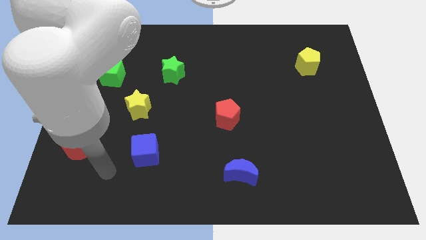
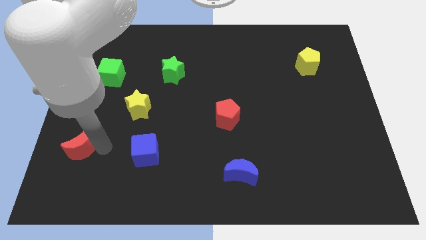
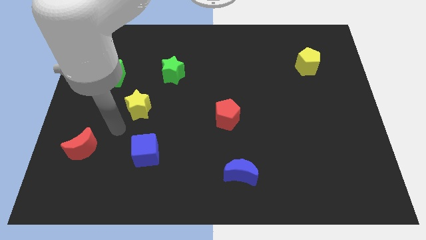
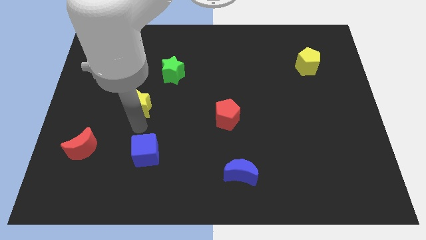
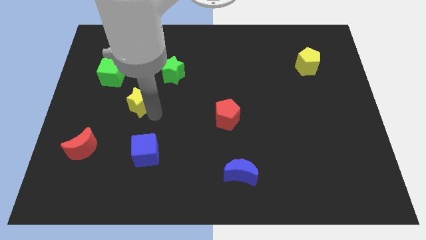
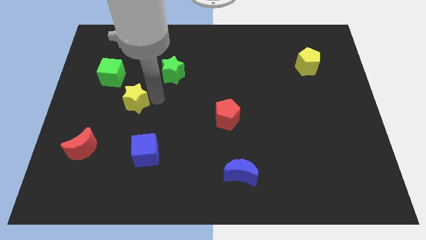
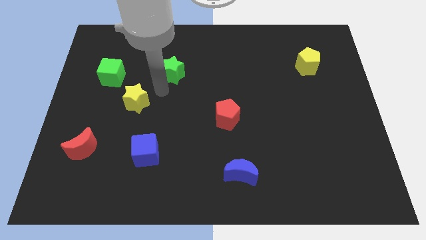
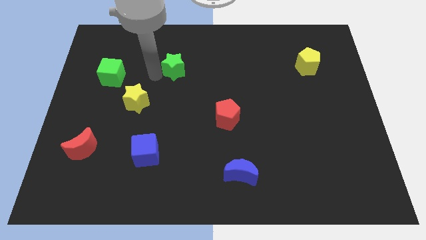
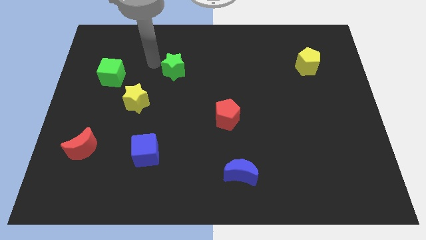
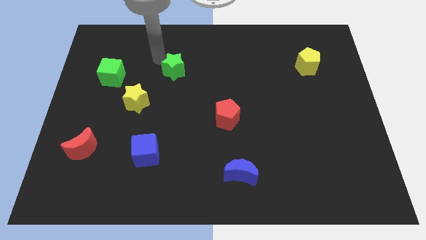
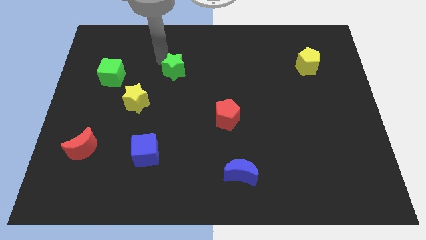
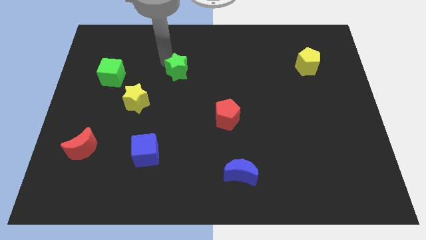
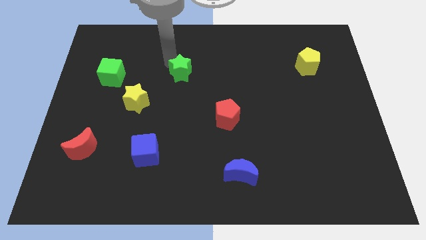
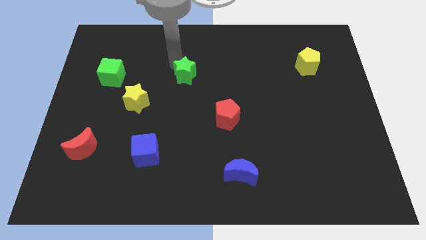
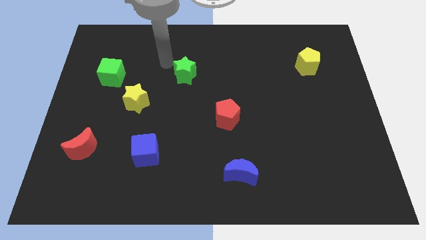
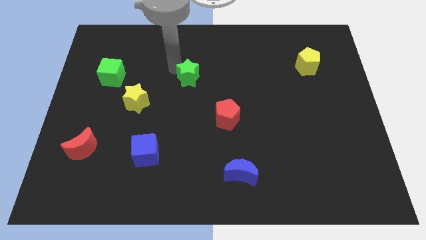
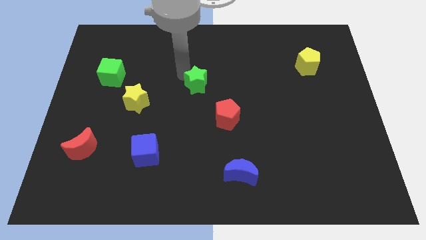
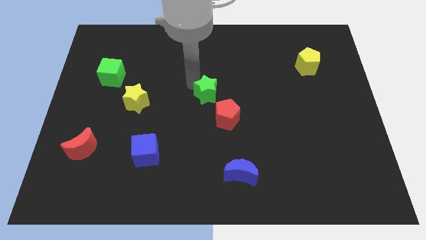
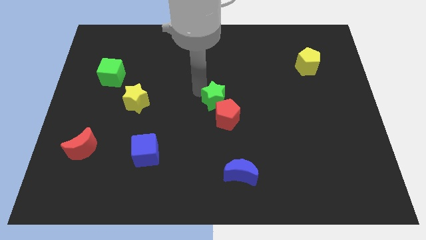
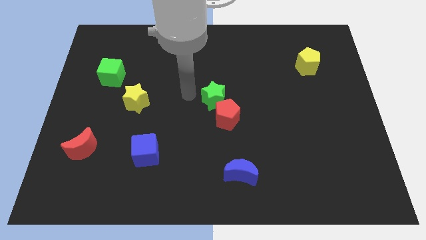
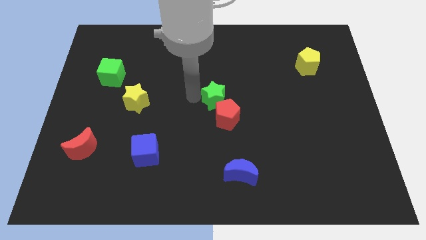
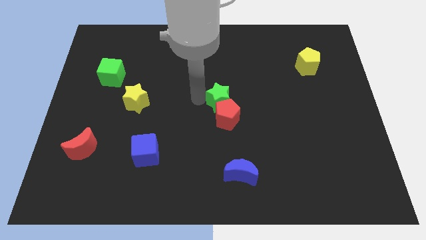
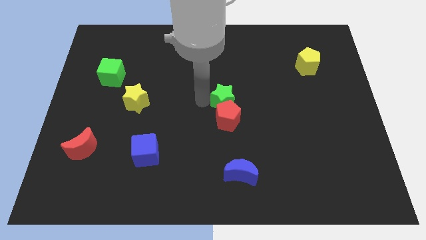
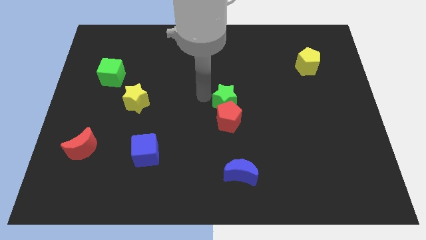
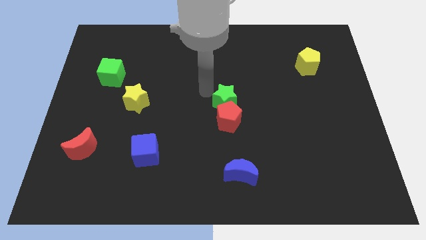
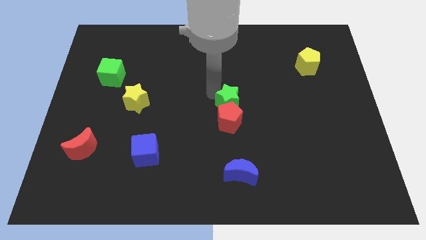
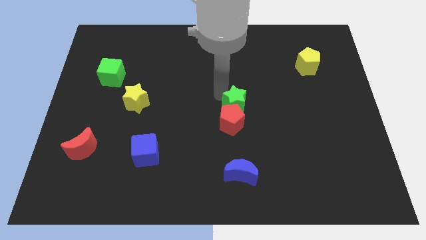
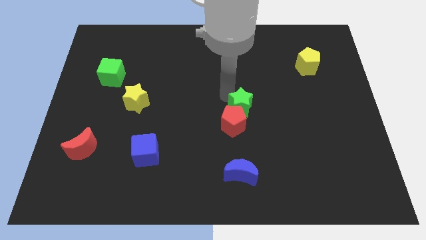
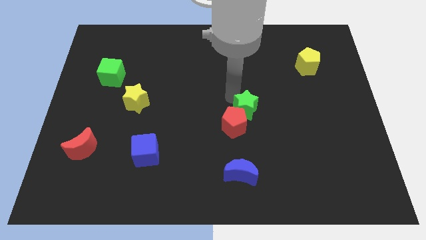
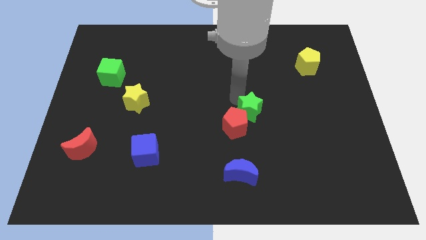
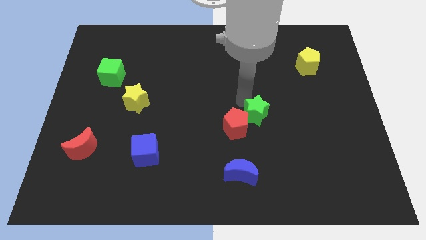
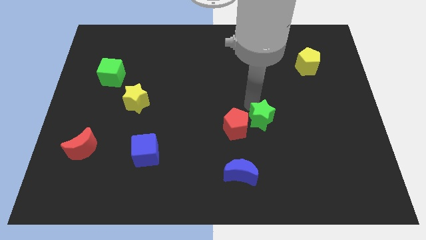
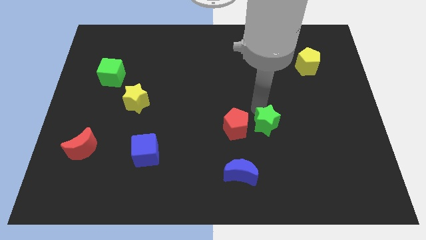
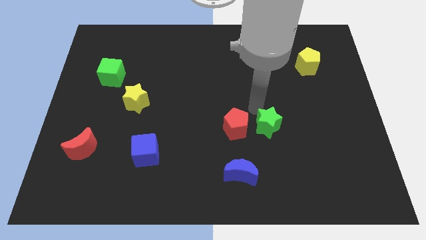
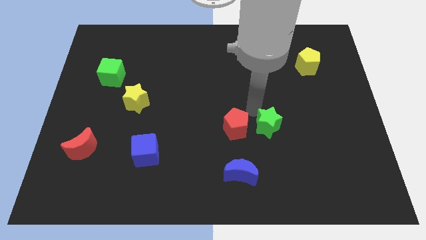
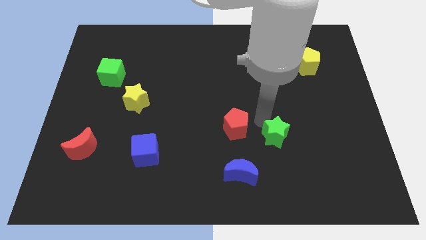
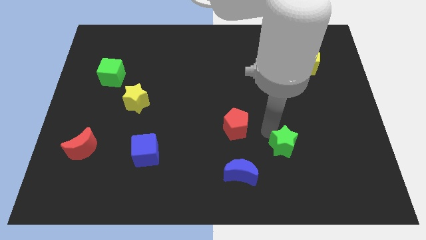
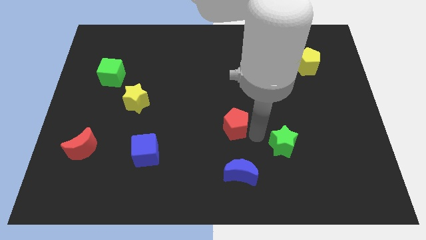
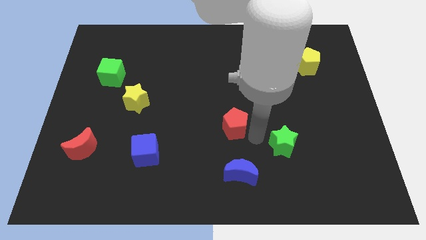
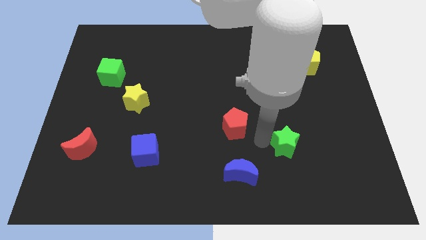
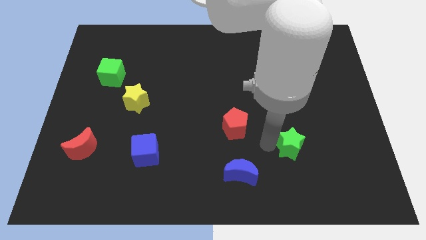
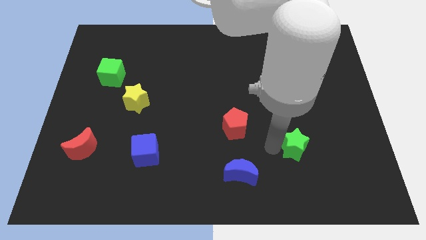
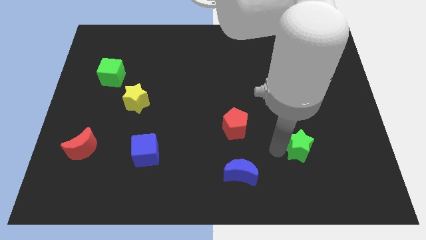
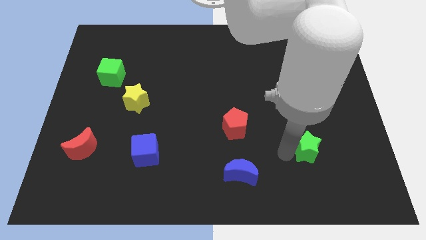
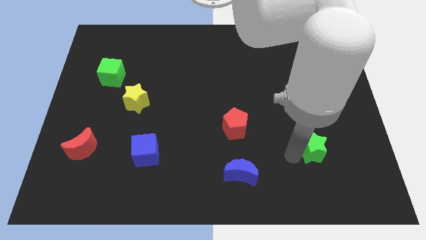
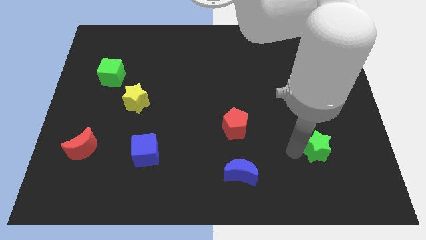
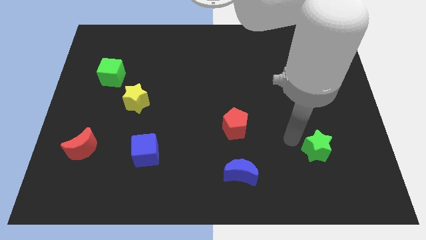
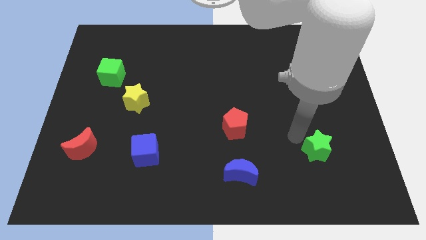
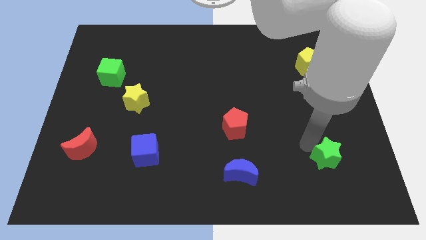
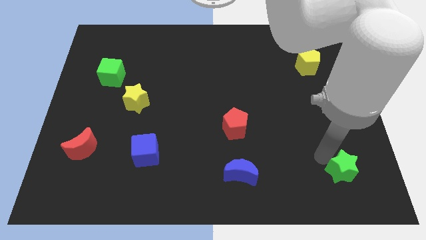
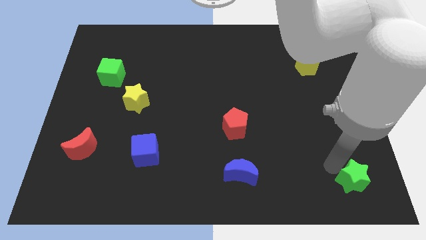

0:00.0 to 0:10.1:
put the green star to the bottom right

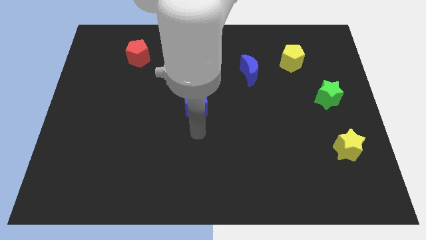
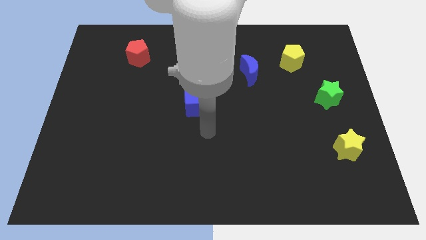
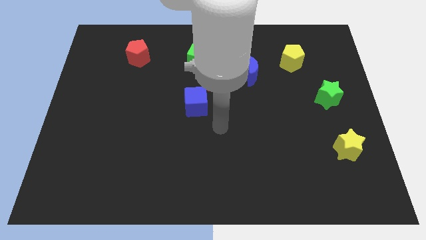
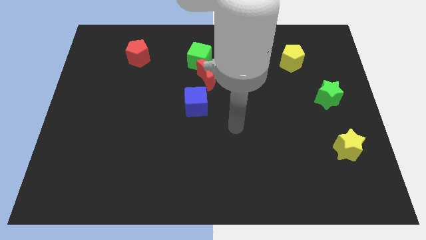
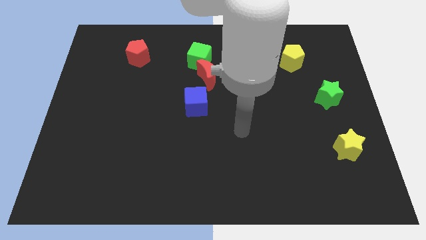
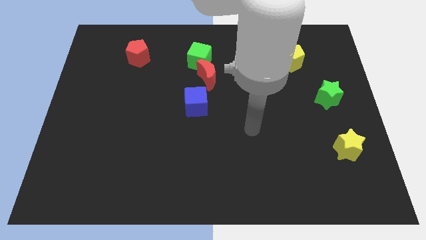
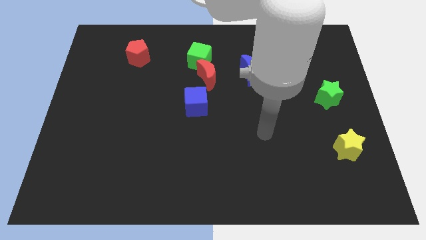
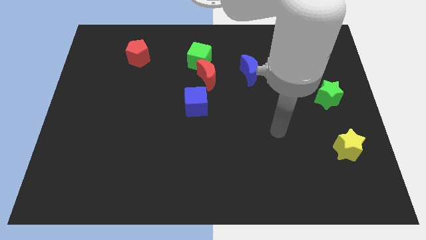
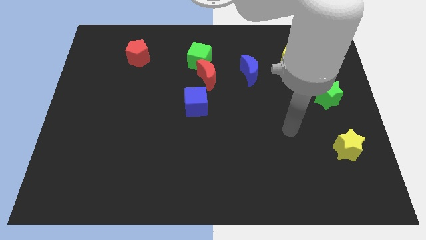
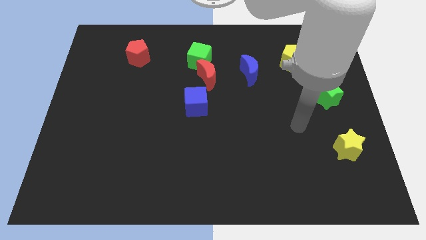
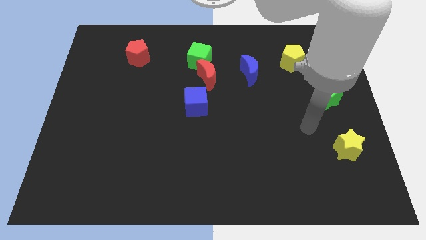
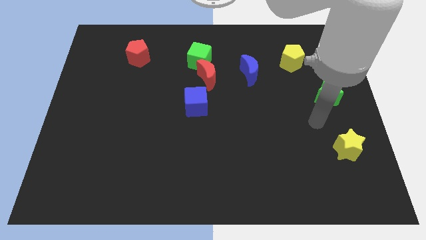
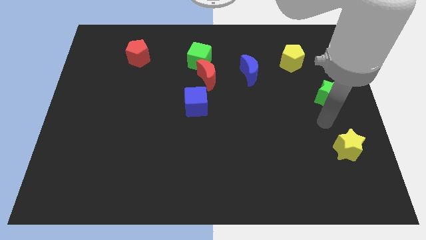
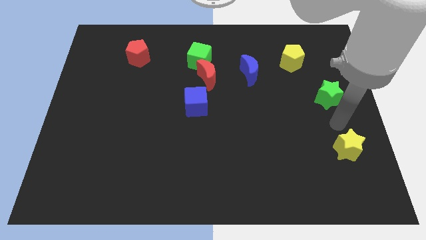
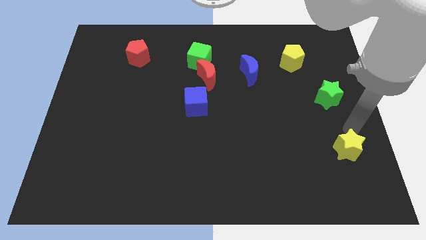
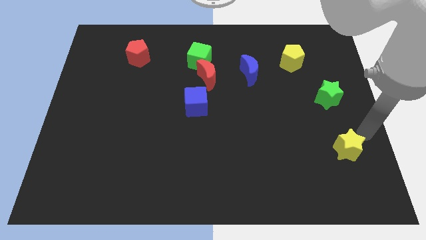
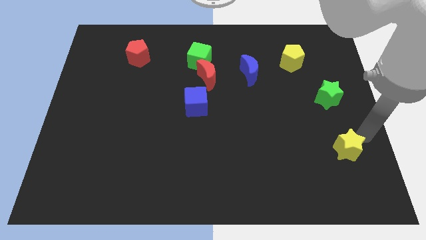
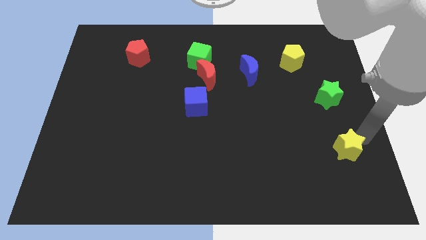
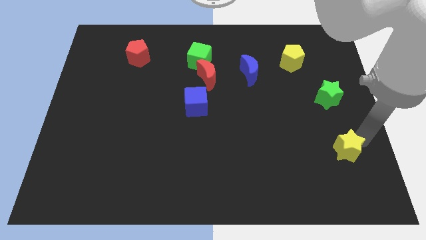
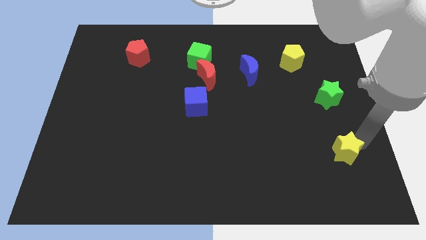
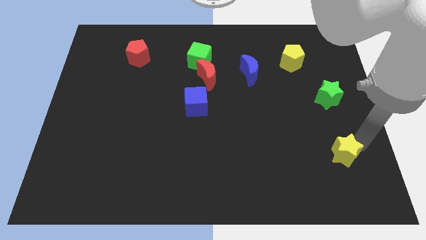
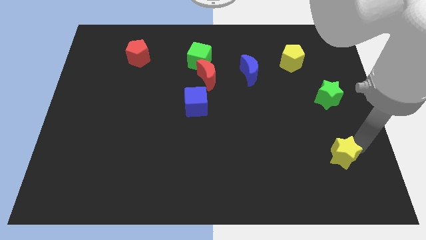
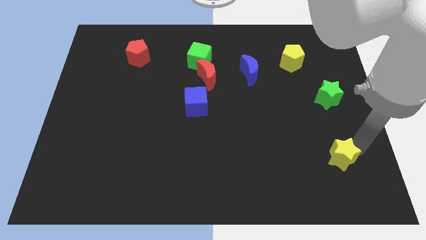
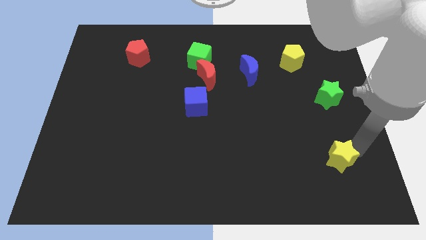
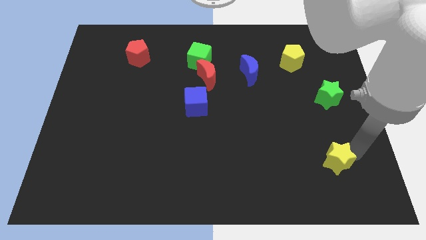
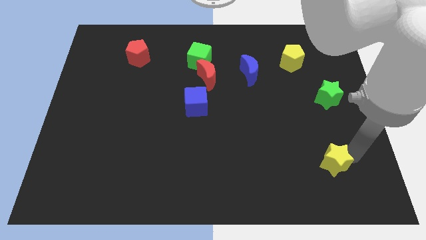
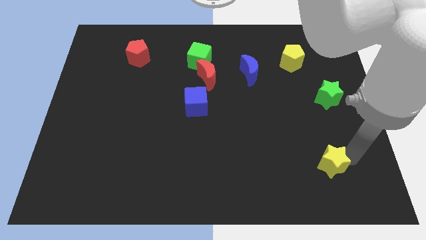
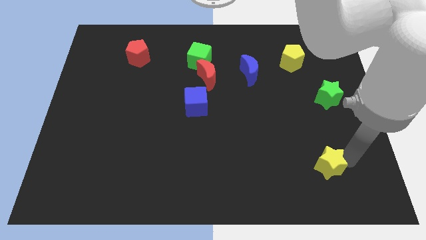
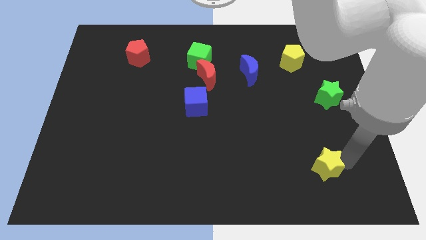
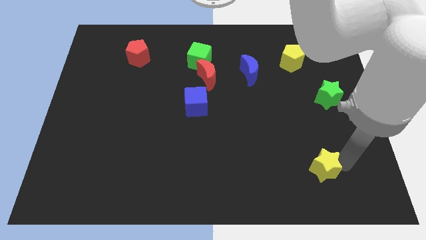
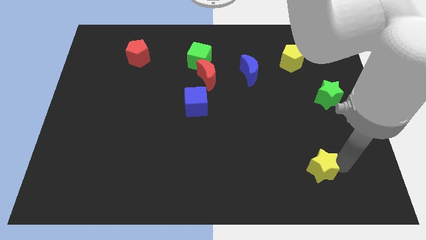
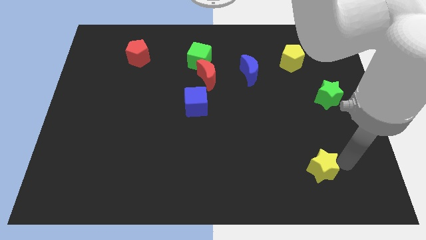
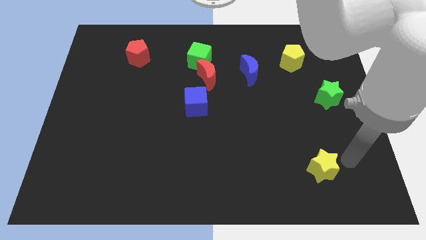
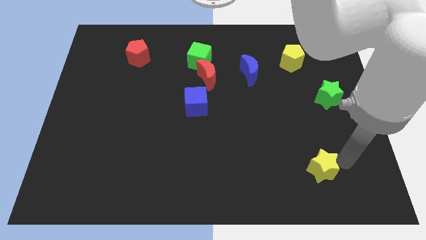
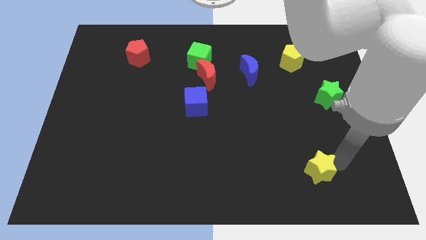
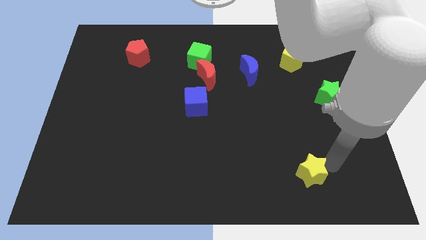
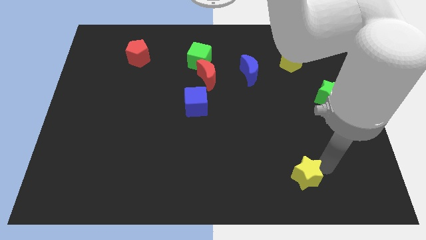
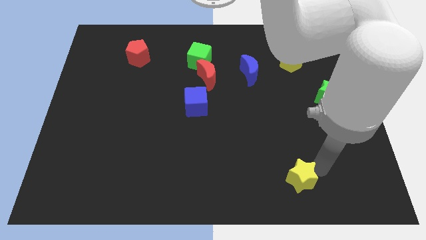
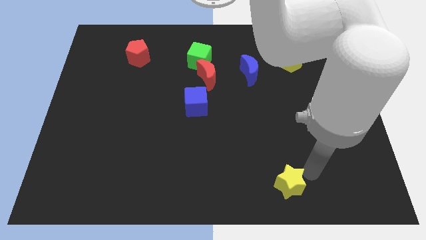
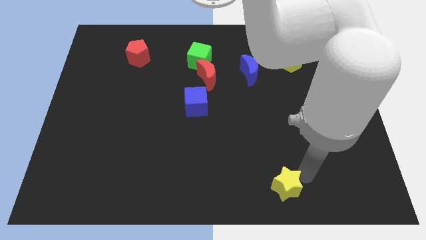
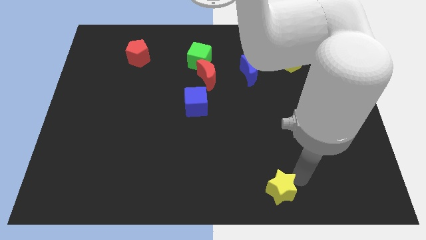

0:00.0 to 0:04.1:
slide the yellow star to the bottom side
